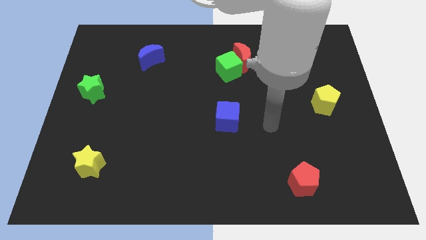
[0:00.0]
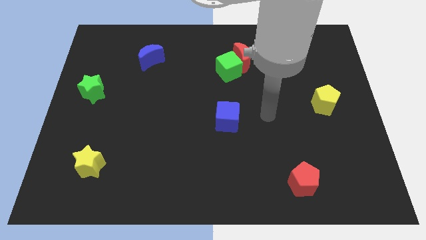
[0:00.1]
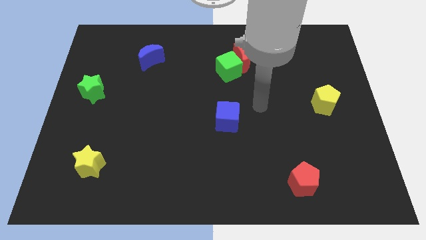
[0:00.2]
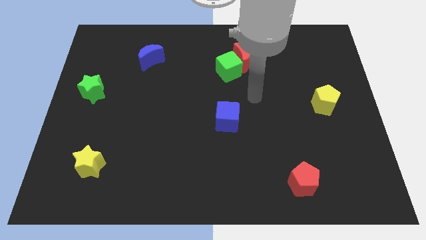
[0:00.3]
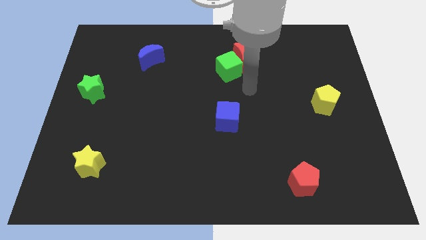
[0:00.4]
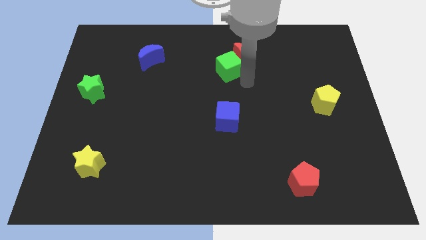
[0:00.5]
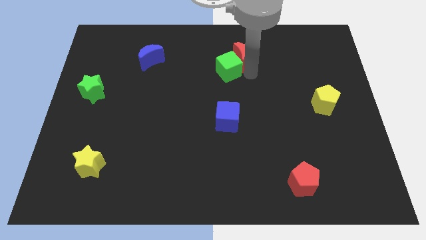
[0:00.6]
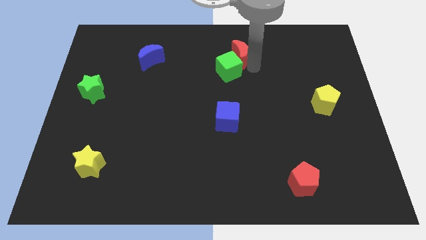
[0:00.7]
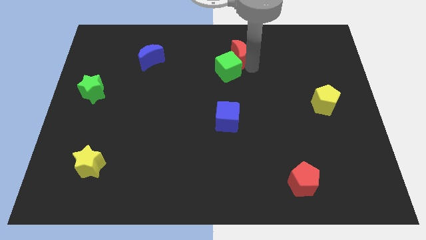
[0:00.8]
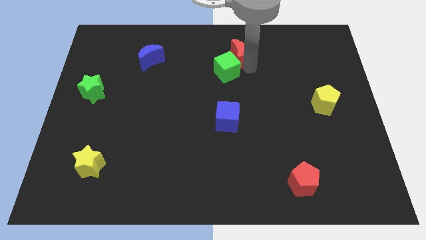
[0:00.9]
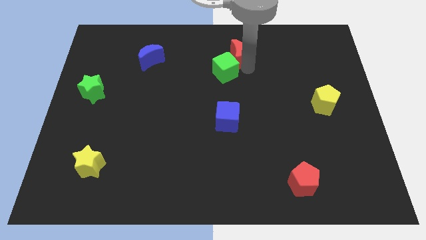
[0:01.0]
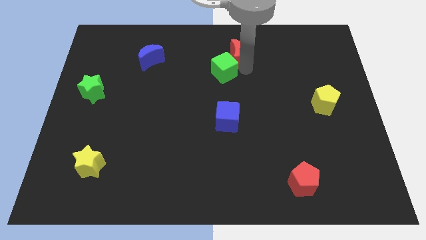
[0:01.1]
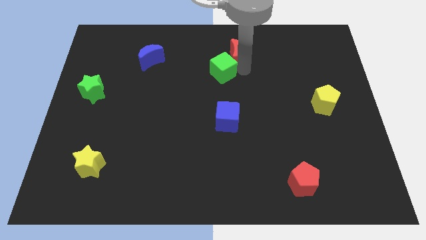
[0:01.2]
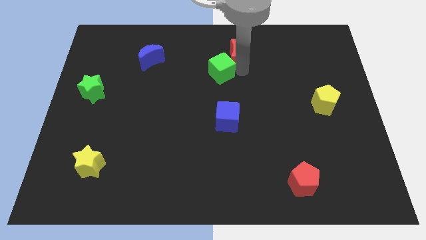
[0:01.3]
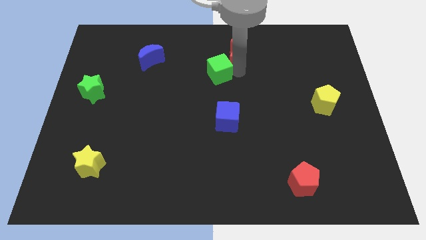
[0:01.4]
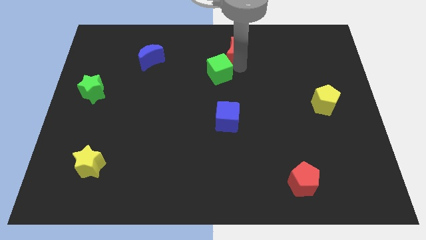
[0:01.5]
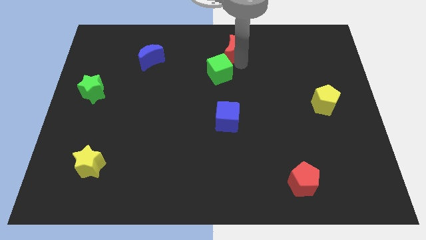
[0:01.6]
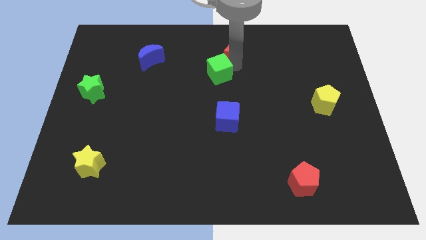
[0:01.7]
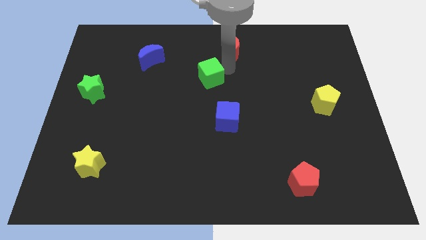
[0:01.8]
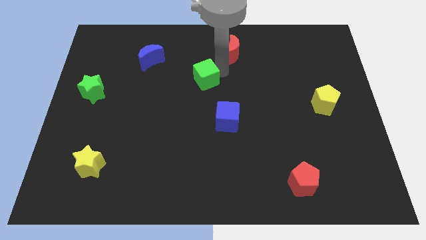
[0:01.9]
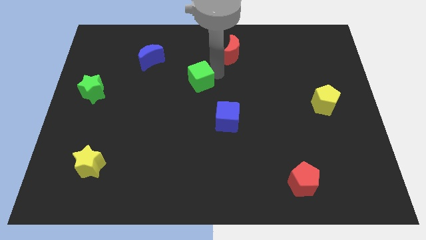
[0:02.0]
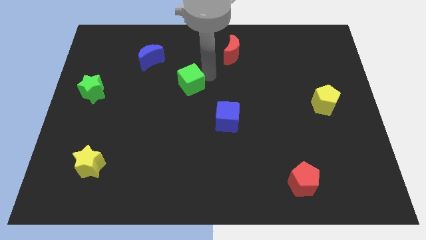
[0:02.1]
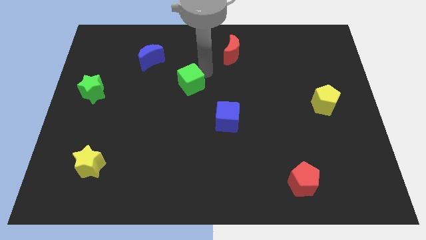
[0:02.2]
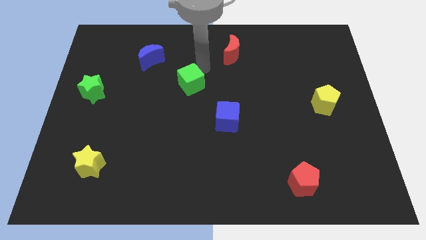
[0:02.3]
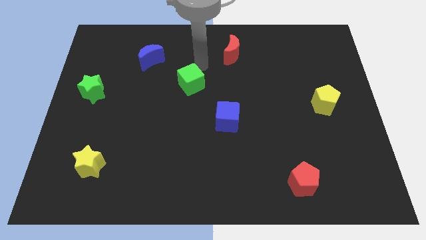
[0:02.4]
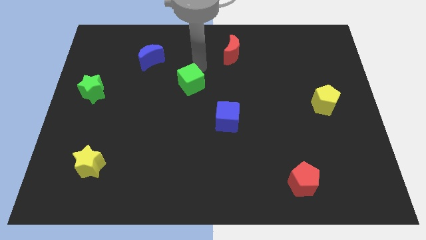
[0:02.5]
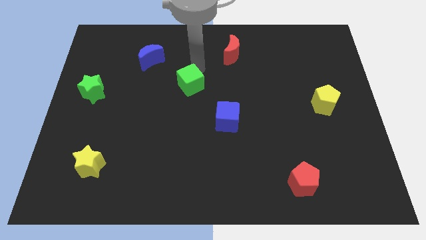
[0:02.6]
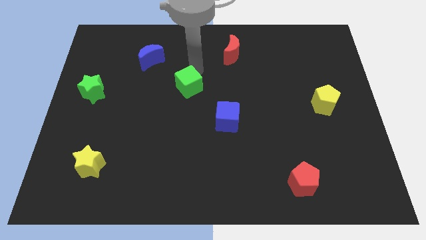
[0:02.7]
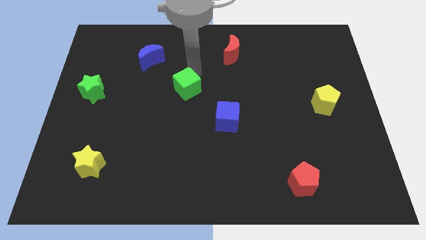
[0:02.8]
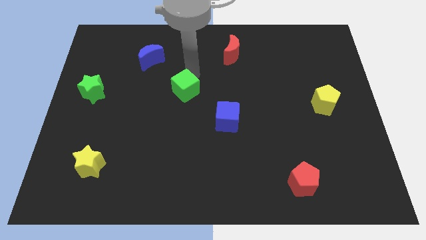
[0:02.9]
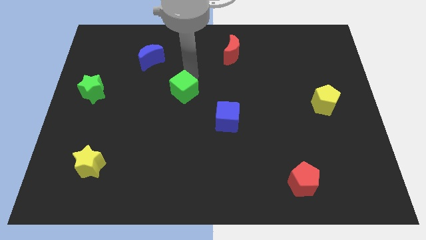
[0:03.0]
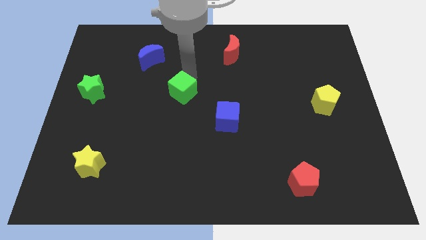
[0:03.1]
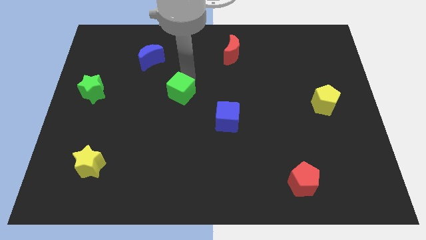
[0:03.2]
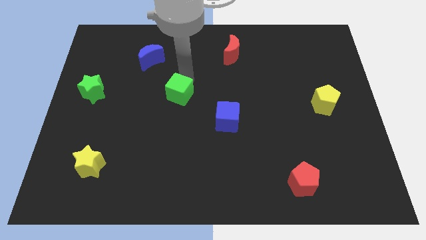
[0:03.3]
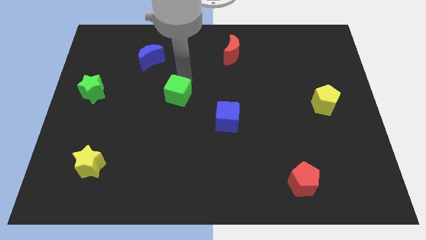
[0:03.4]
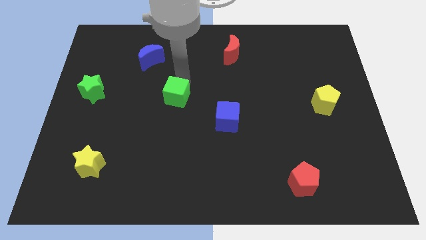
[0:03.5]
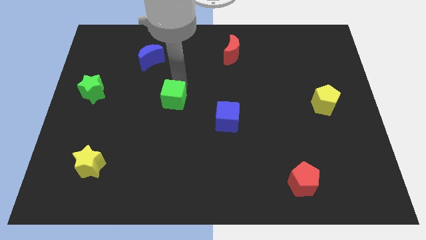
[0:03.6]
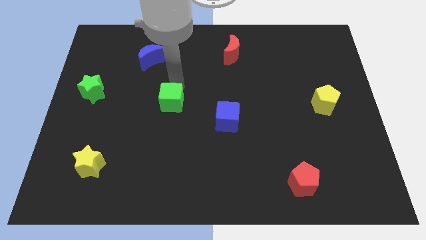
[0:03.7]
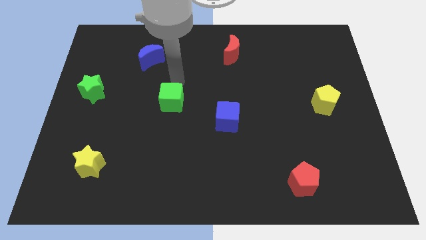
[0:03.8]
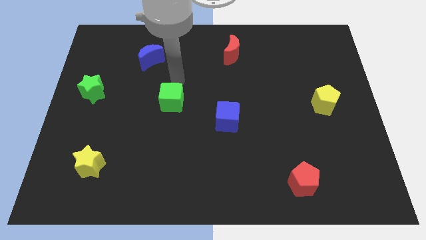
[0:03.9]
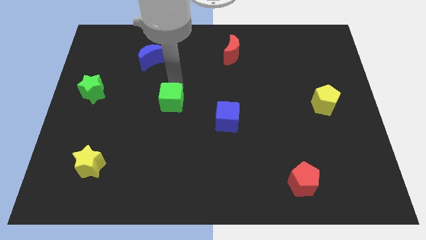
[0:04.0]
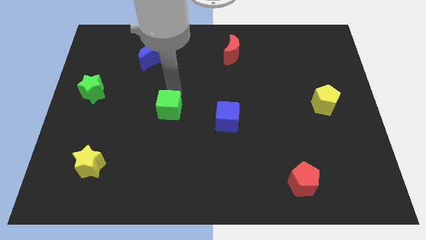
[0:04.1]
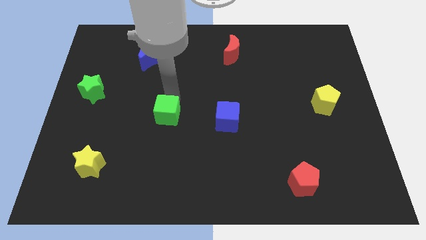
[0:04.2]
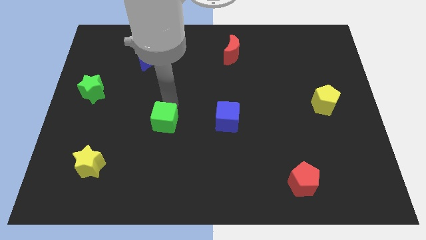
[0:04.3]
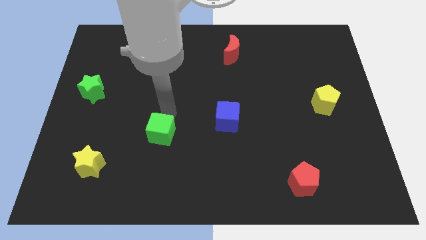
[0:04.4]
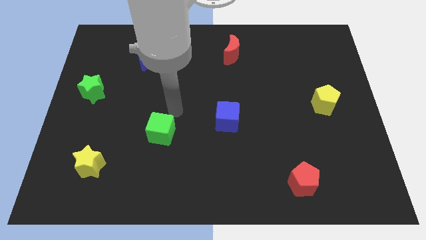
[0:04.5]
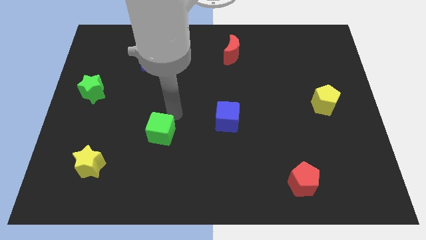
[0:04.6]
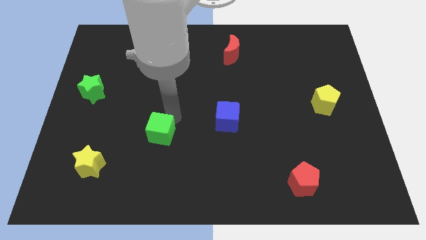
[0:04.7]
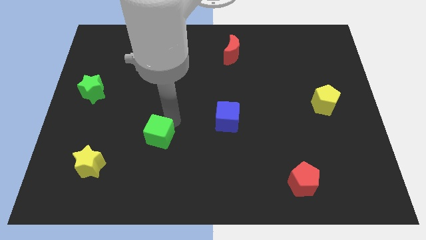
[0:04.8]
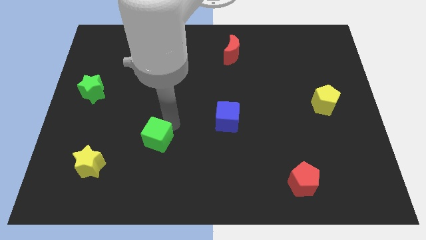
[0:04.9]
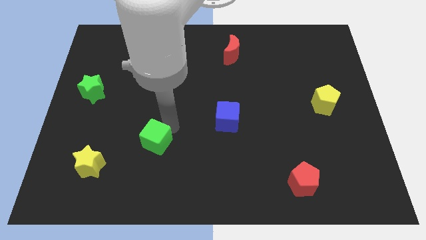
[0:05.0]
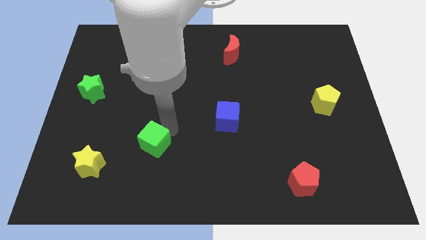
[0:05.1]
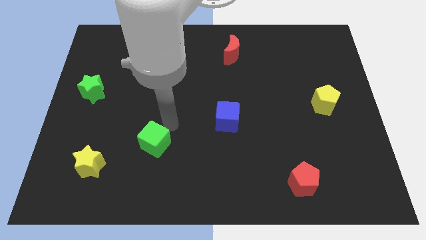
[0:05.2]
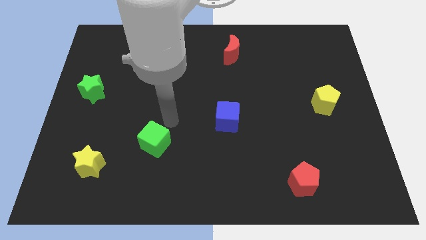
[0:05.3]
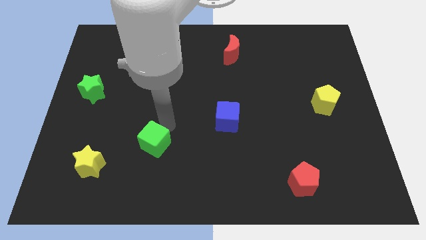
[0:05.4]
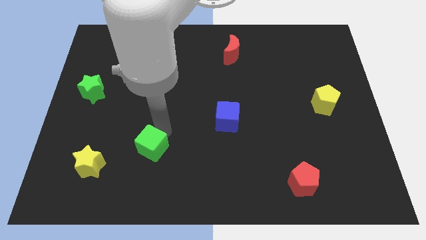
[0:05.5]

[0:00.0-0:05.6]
put the green cube right of the yellow star

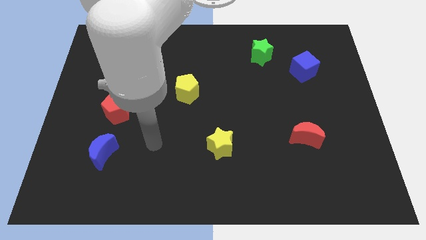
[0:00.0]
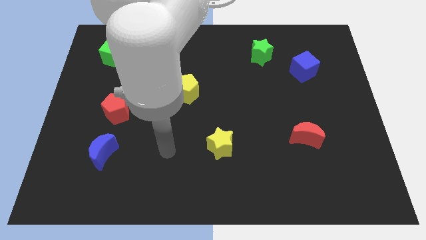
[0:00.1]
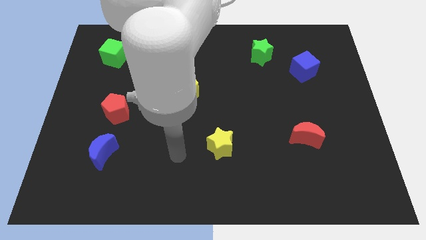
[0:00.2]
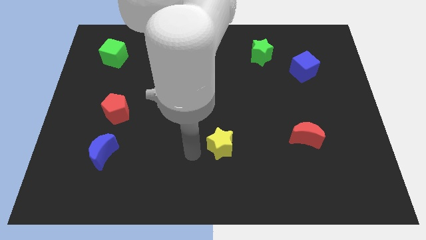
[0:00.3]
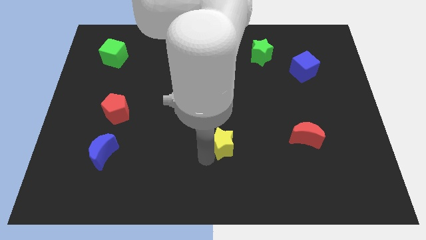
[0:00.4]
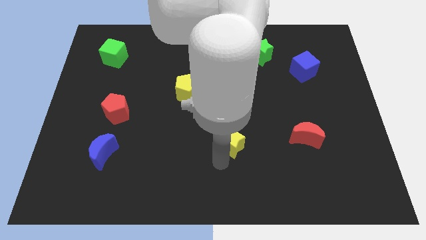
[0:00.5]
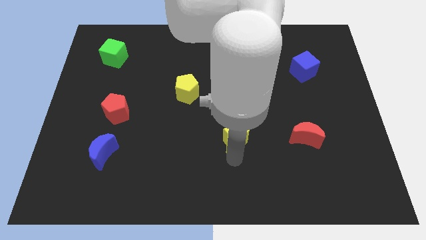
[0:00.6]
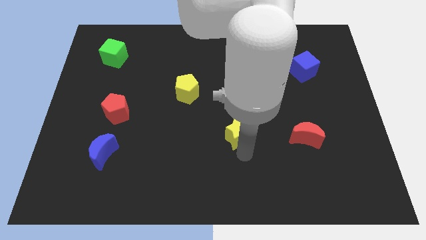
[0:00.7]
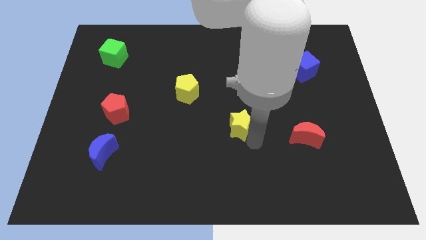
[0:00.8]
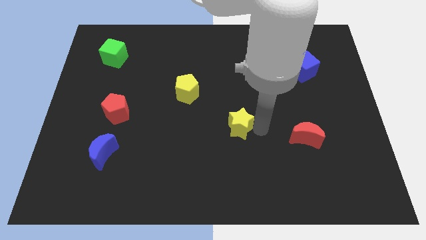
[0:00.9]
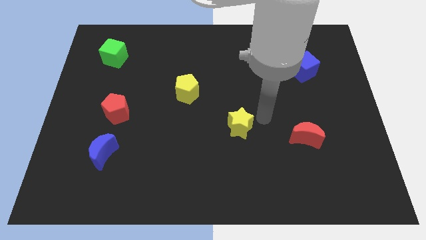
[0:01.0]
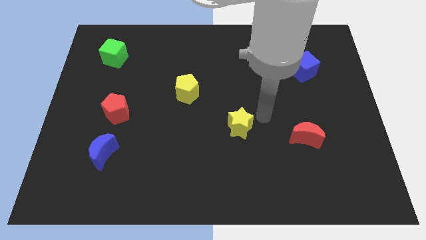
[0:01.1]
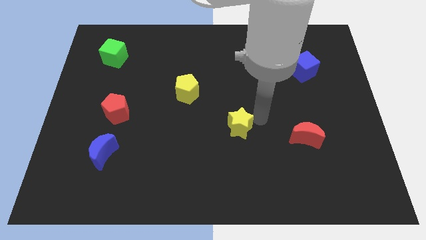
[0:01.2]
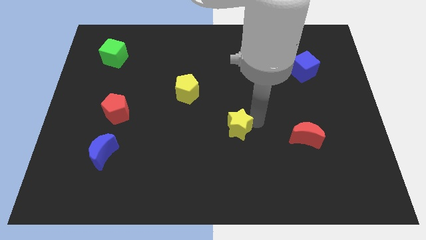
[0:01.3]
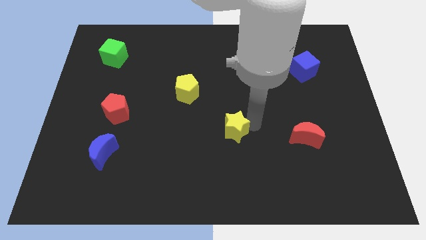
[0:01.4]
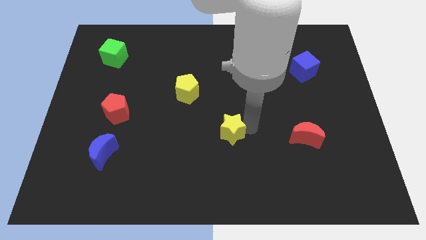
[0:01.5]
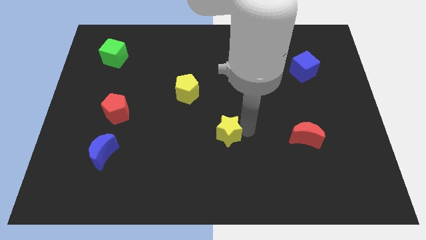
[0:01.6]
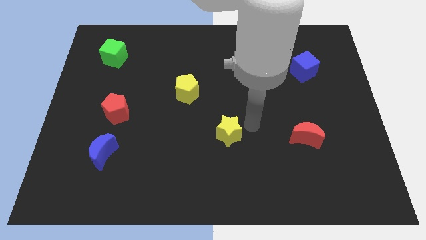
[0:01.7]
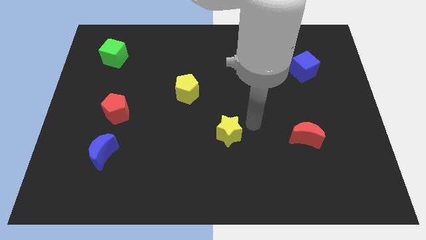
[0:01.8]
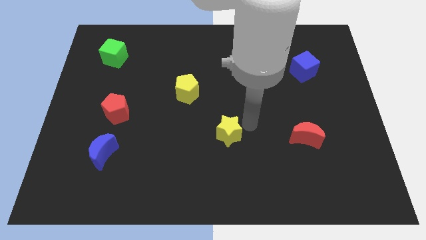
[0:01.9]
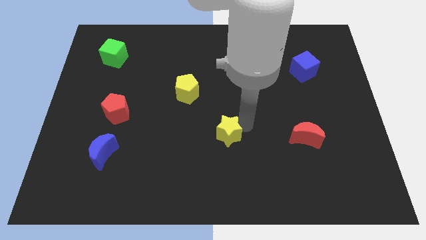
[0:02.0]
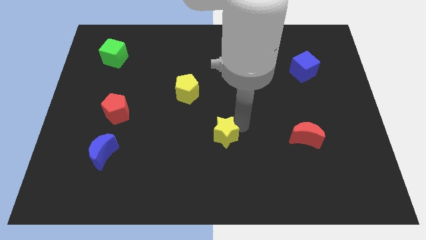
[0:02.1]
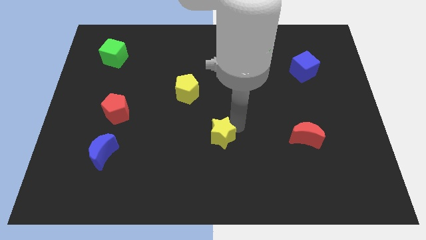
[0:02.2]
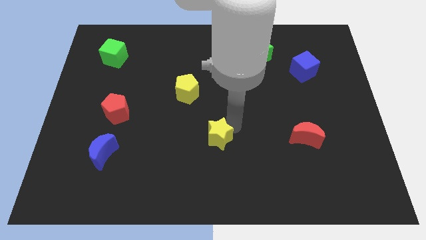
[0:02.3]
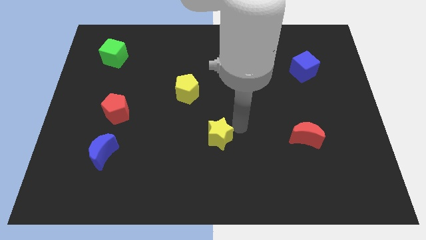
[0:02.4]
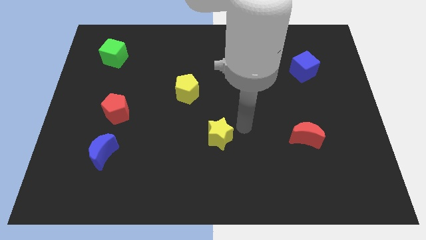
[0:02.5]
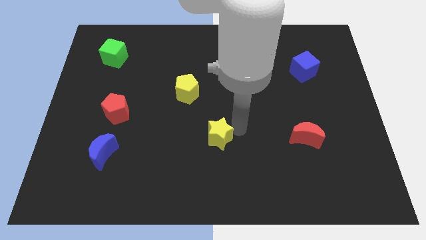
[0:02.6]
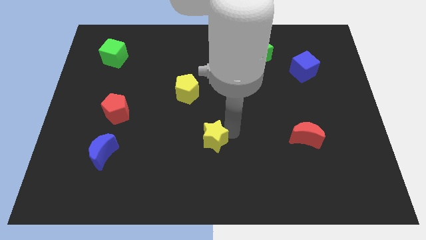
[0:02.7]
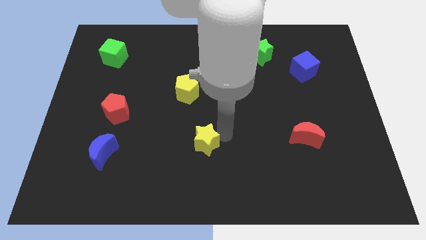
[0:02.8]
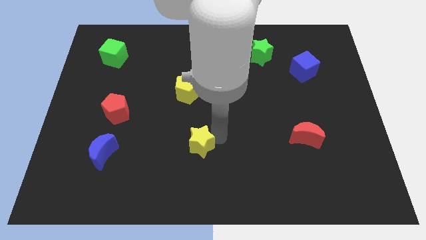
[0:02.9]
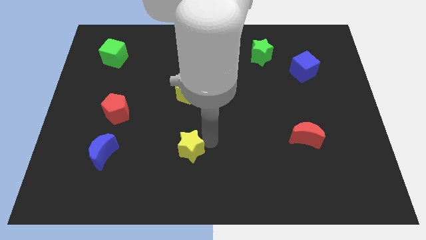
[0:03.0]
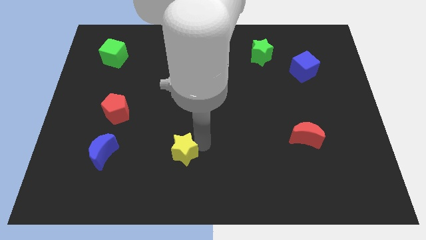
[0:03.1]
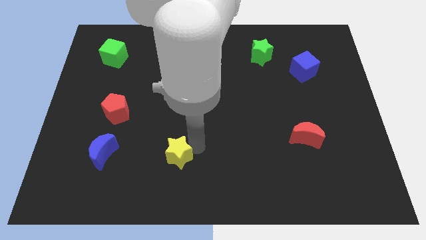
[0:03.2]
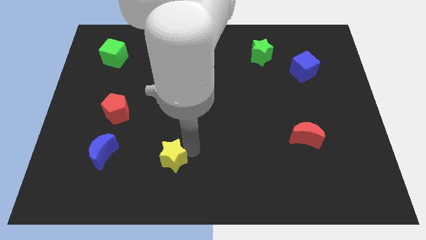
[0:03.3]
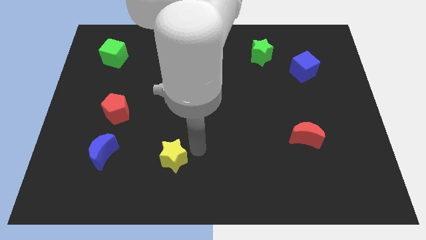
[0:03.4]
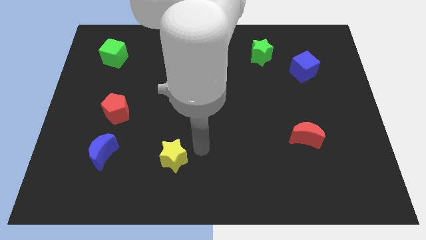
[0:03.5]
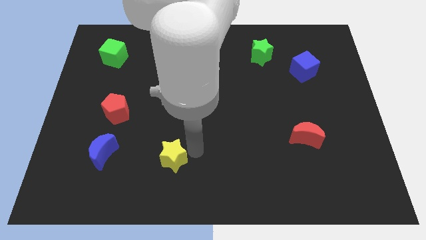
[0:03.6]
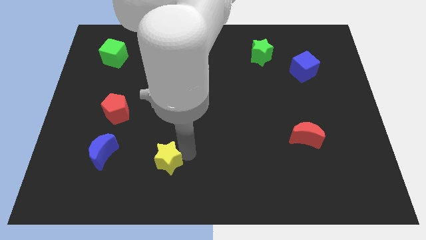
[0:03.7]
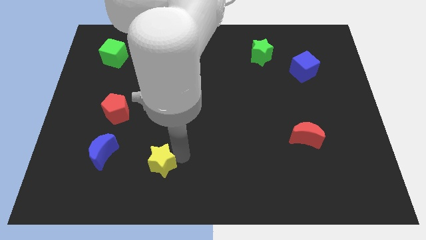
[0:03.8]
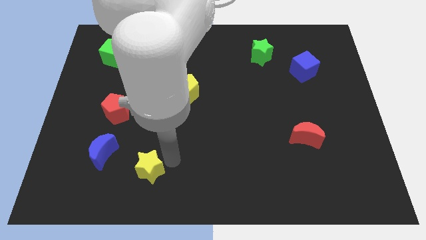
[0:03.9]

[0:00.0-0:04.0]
push the yellow star to the bottom right of the blue moon
